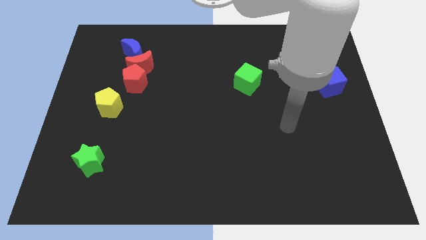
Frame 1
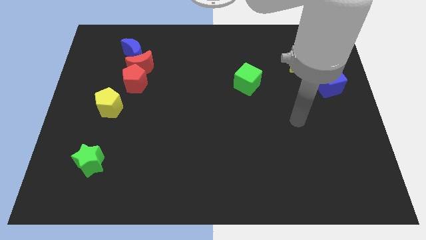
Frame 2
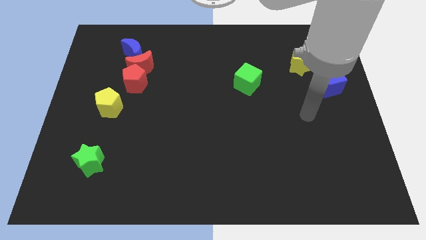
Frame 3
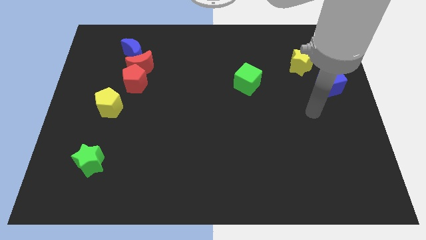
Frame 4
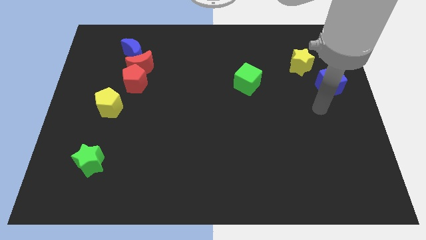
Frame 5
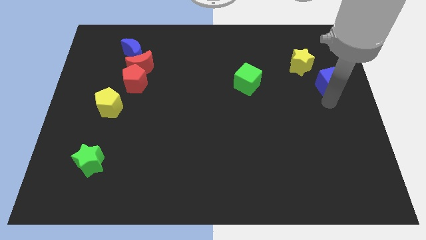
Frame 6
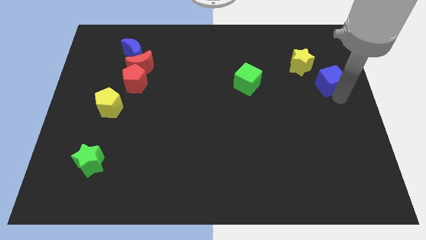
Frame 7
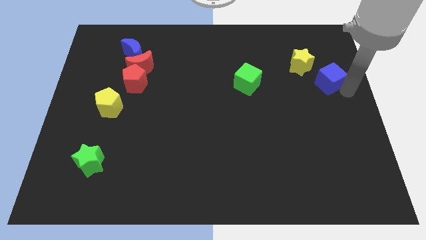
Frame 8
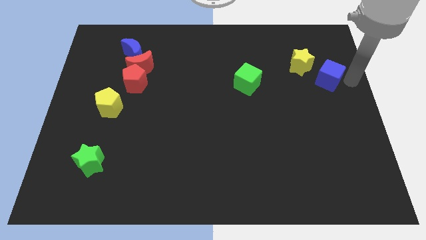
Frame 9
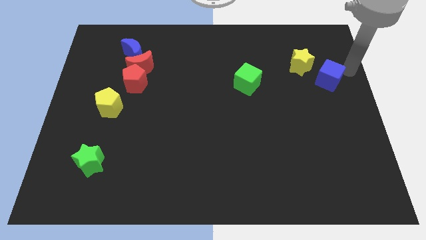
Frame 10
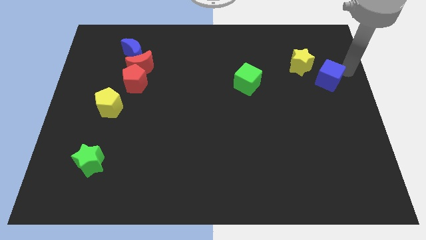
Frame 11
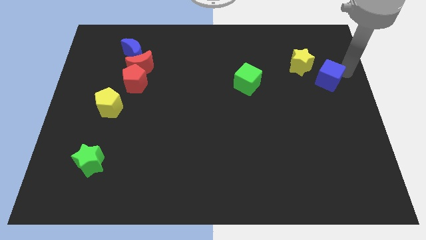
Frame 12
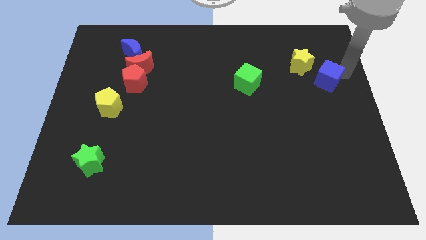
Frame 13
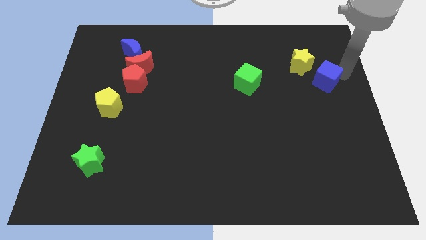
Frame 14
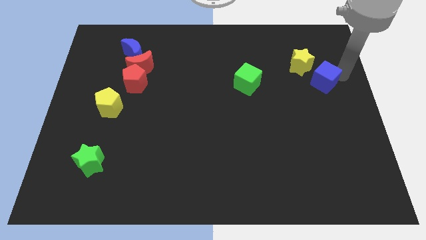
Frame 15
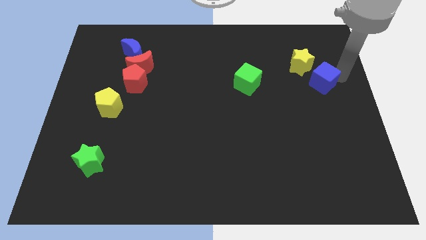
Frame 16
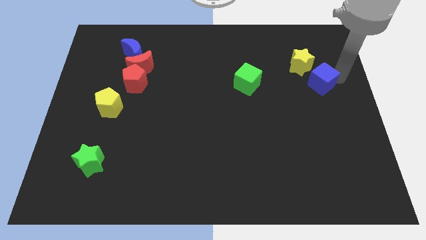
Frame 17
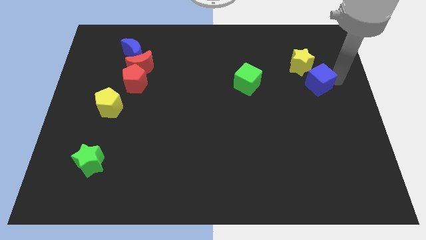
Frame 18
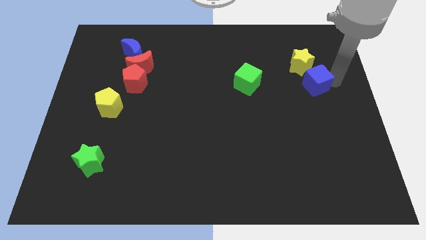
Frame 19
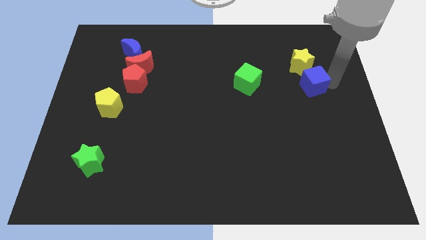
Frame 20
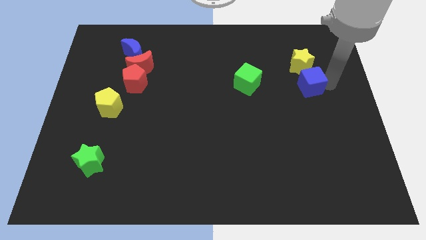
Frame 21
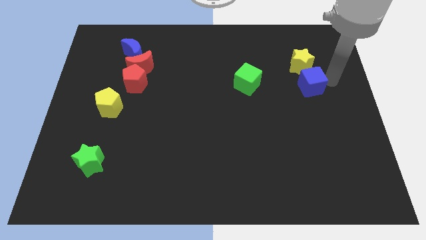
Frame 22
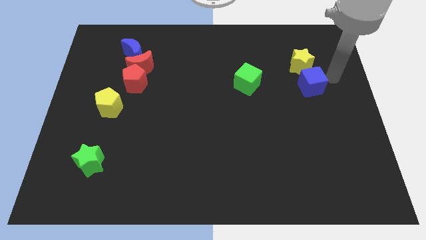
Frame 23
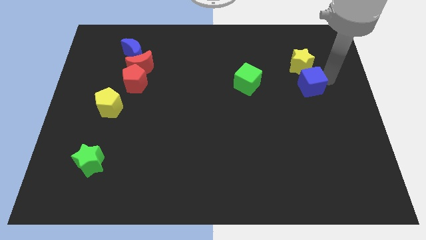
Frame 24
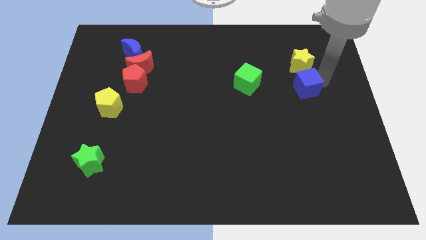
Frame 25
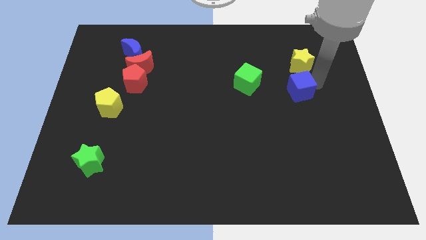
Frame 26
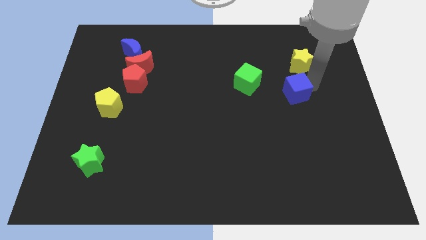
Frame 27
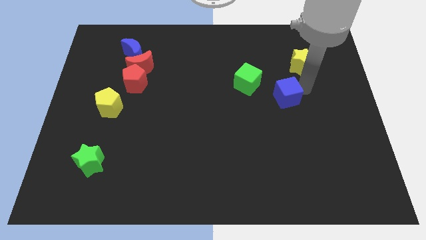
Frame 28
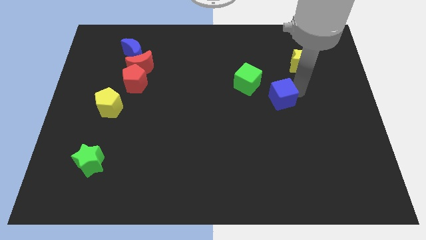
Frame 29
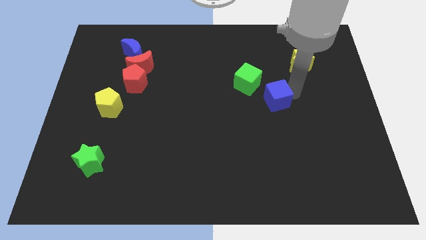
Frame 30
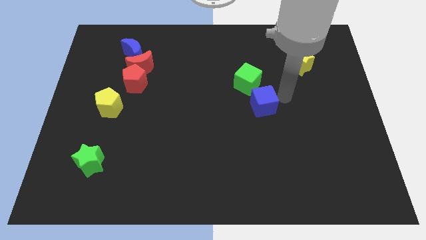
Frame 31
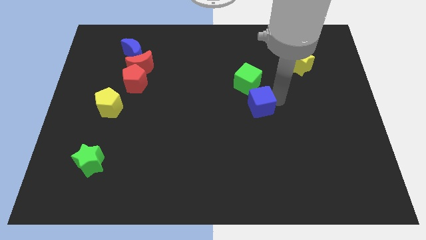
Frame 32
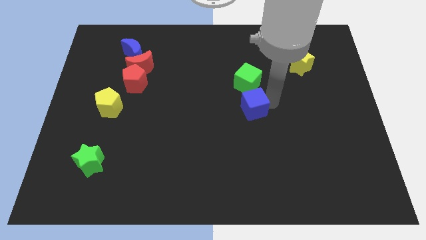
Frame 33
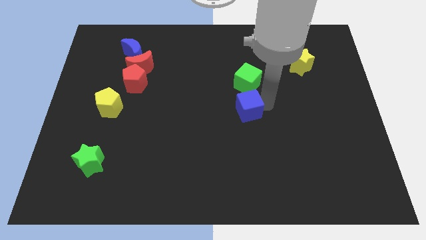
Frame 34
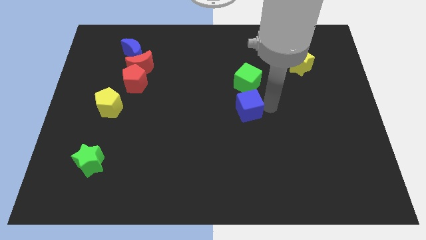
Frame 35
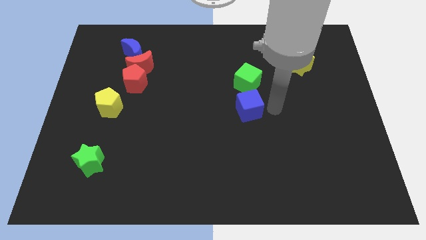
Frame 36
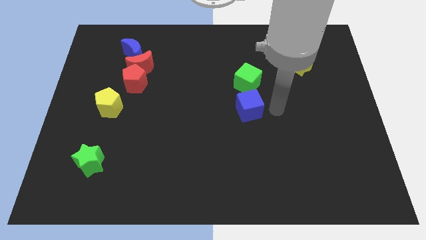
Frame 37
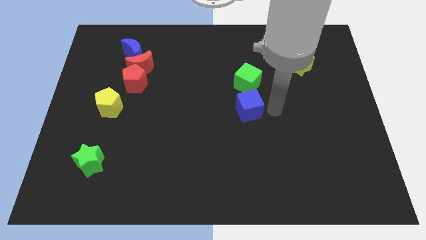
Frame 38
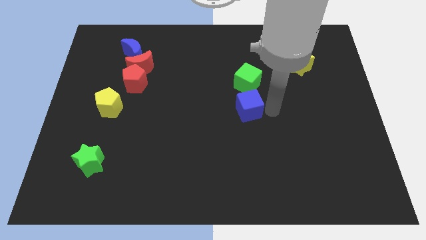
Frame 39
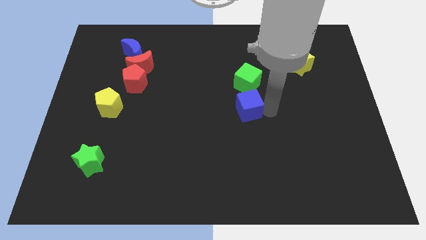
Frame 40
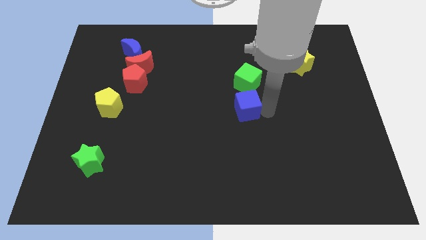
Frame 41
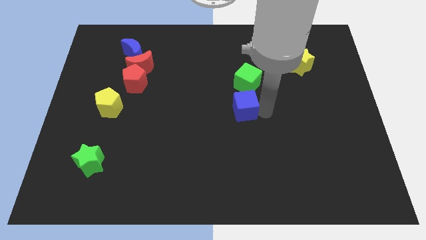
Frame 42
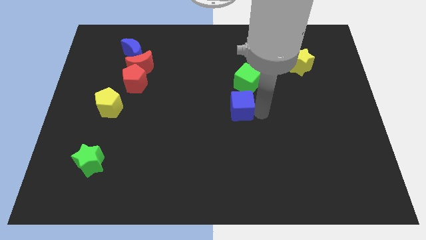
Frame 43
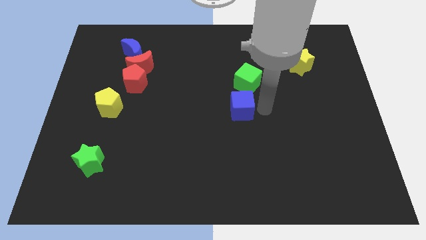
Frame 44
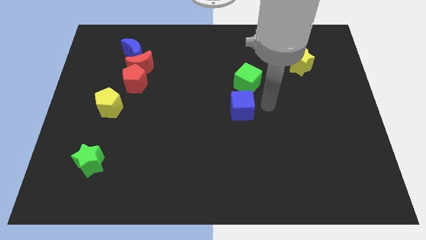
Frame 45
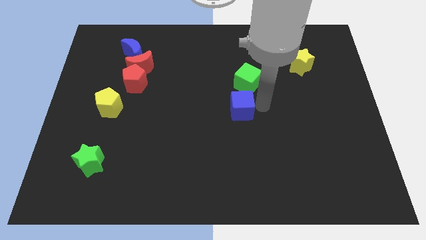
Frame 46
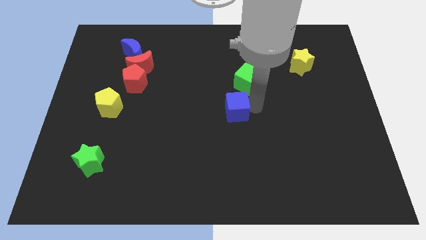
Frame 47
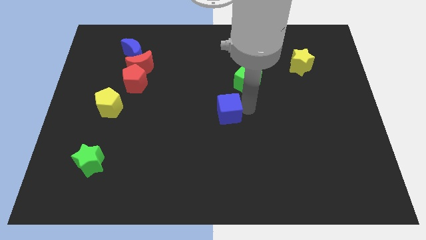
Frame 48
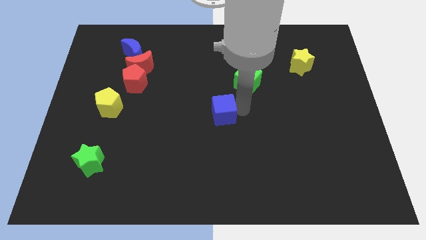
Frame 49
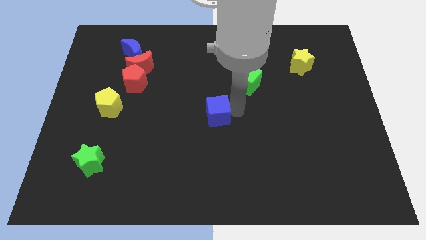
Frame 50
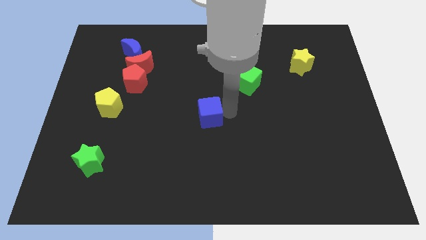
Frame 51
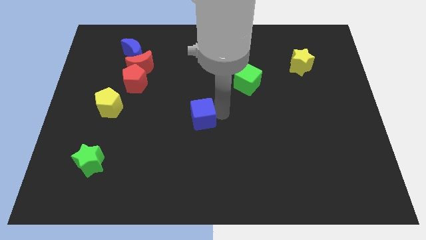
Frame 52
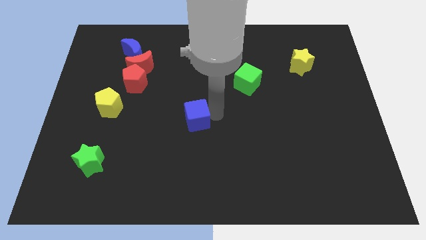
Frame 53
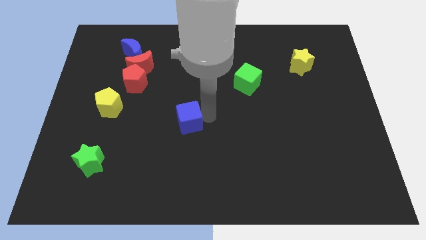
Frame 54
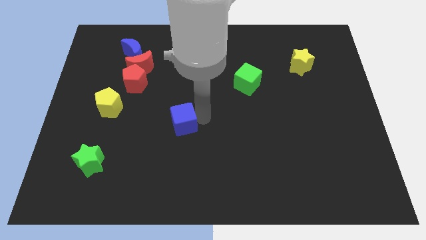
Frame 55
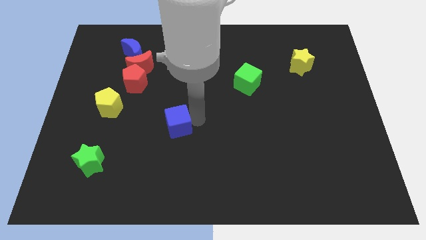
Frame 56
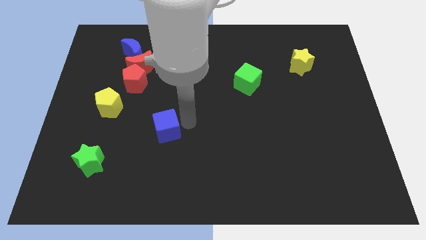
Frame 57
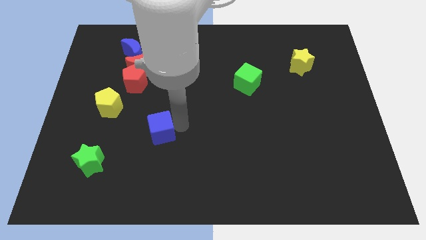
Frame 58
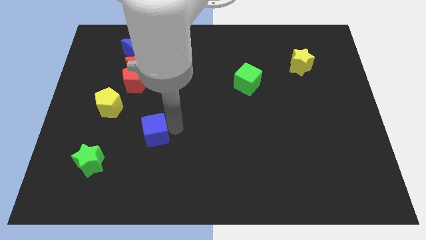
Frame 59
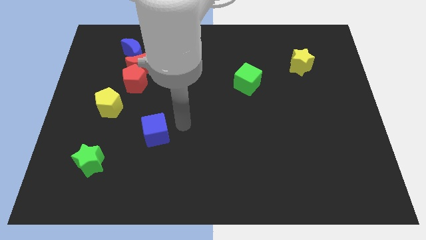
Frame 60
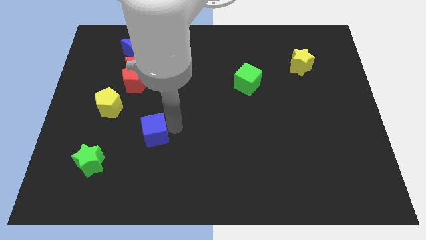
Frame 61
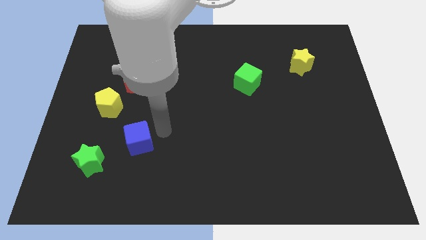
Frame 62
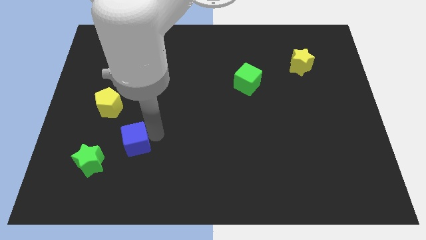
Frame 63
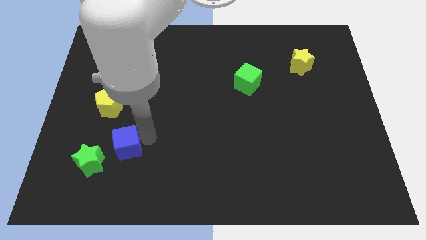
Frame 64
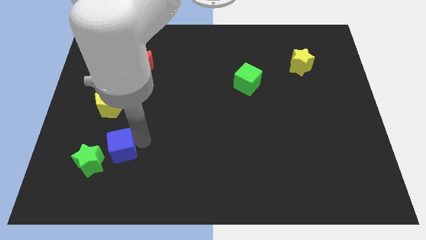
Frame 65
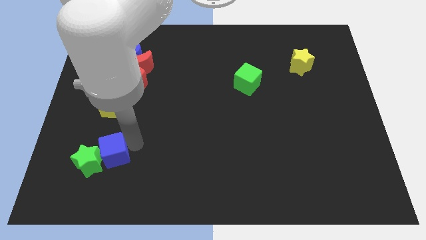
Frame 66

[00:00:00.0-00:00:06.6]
move the blue cube to the green star

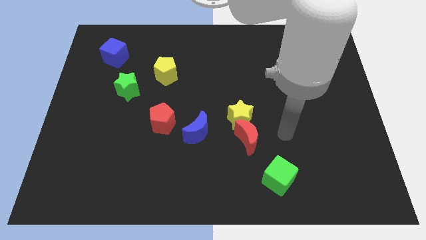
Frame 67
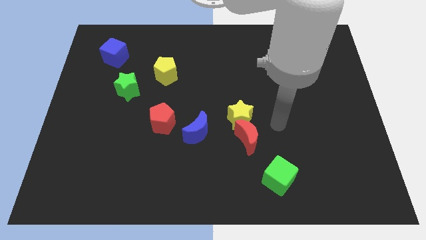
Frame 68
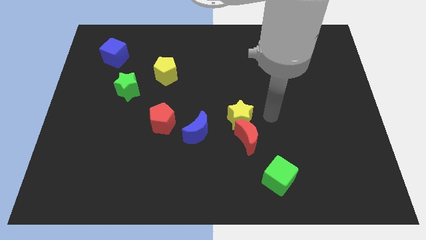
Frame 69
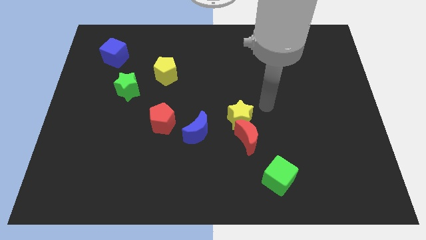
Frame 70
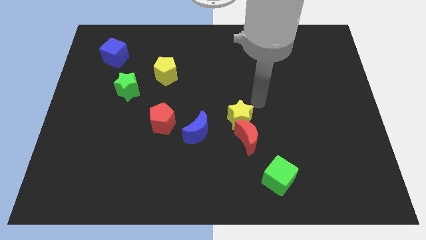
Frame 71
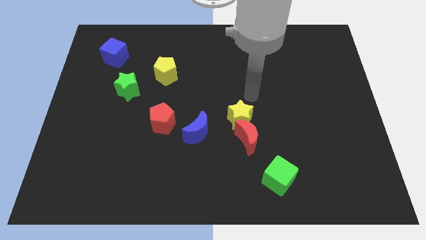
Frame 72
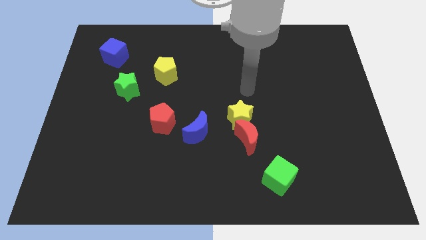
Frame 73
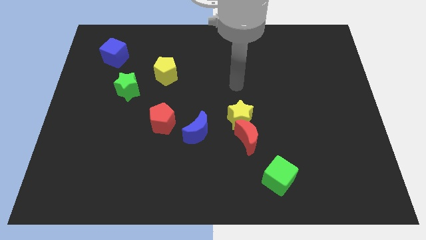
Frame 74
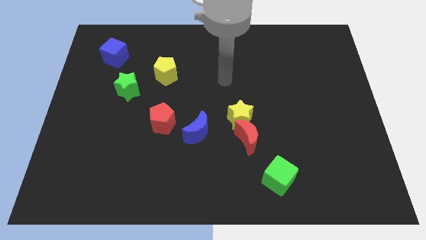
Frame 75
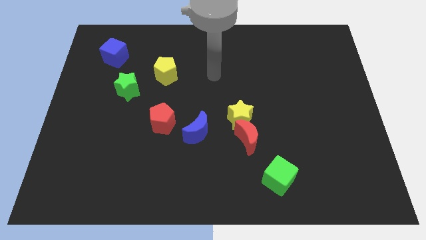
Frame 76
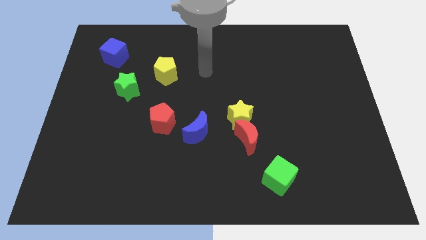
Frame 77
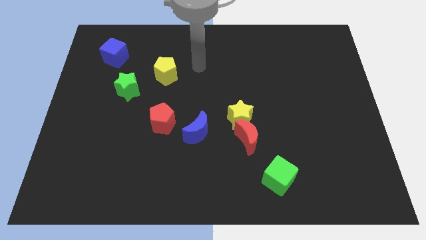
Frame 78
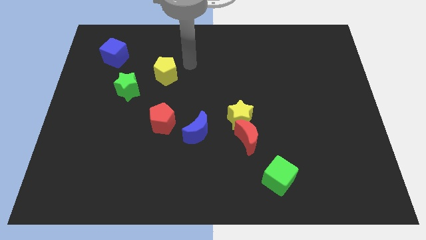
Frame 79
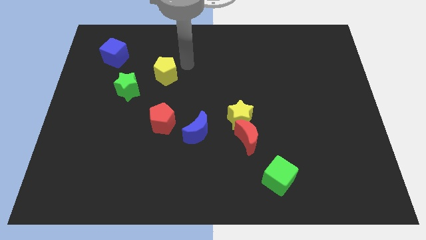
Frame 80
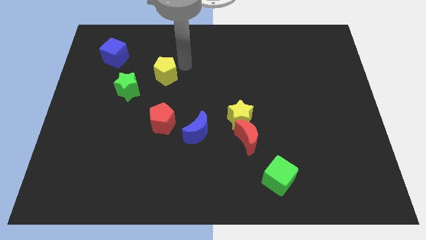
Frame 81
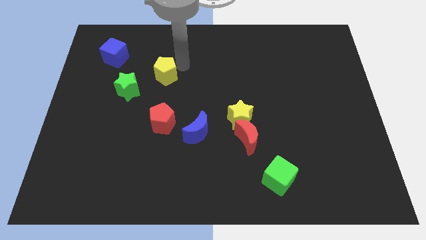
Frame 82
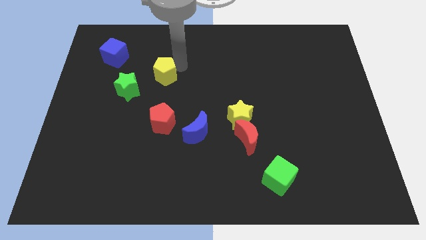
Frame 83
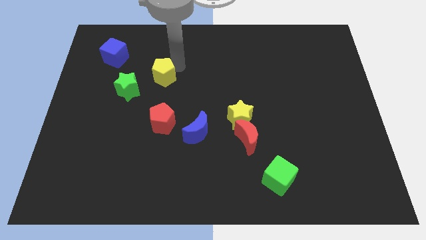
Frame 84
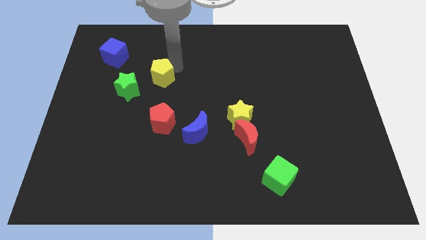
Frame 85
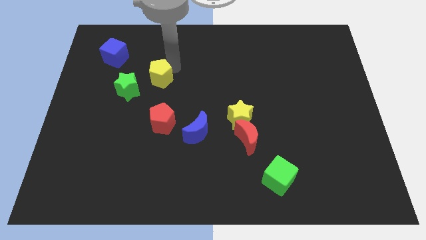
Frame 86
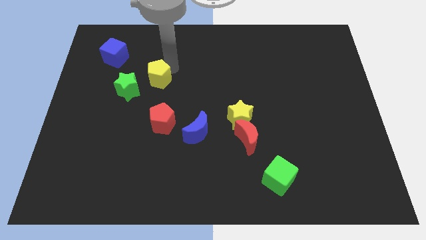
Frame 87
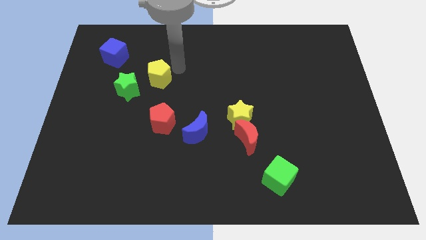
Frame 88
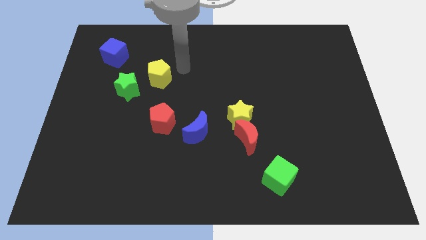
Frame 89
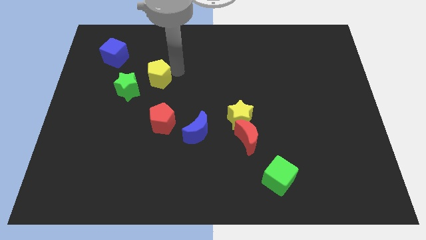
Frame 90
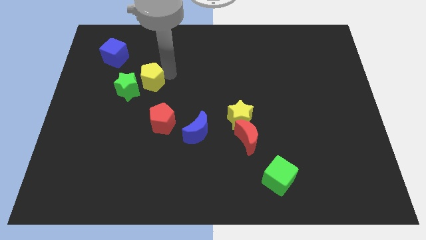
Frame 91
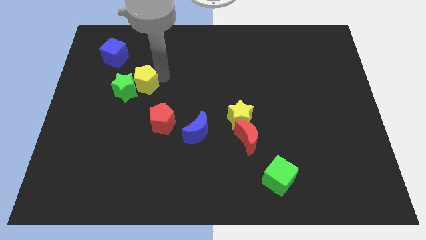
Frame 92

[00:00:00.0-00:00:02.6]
move the yellow pentagon to the green star
